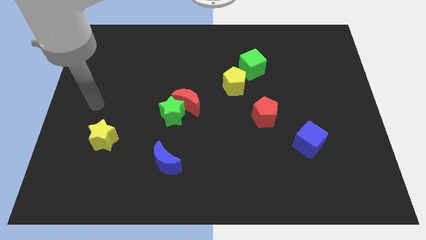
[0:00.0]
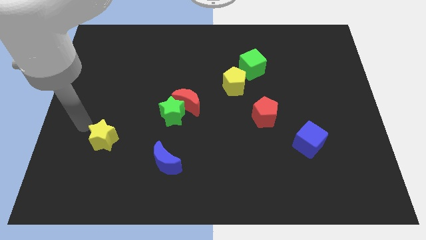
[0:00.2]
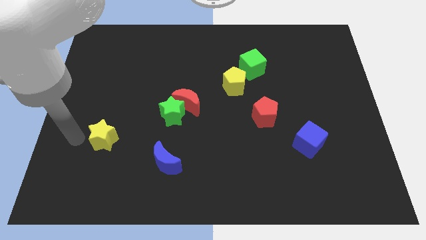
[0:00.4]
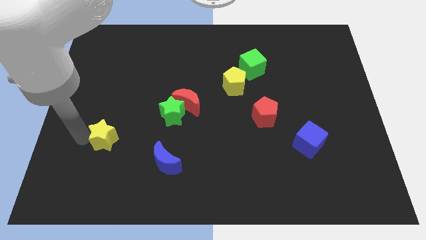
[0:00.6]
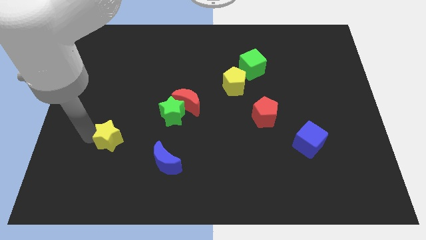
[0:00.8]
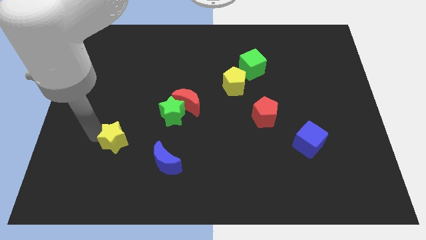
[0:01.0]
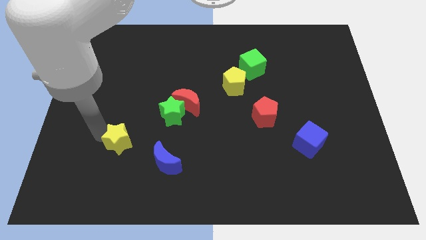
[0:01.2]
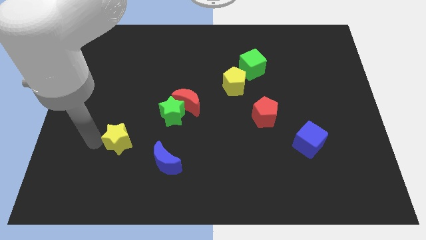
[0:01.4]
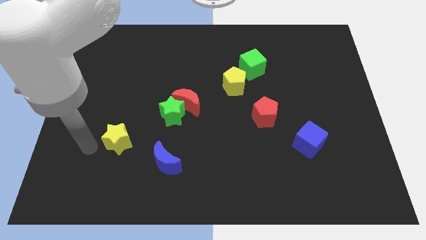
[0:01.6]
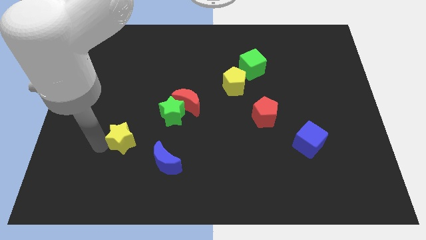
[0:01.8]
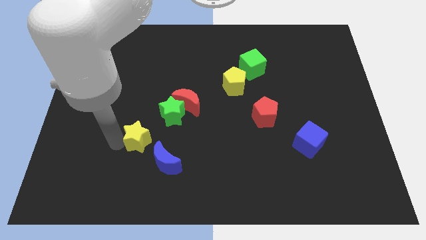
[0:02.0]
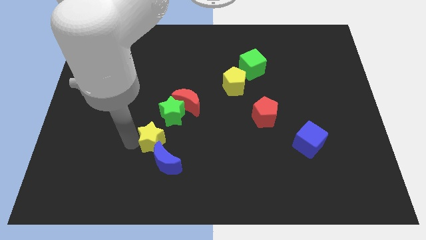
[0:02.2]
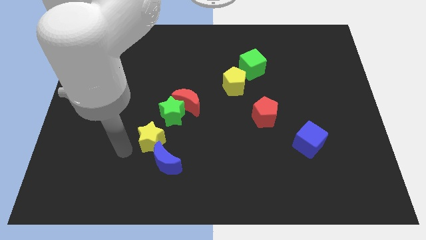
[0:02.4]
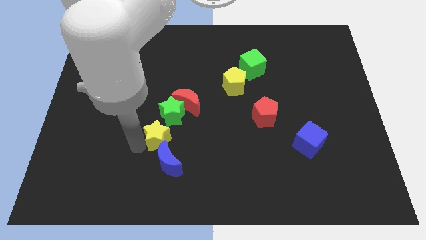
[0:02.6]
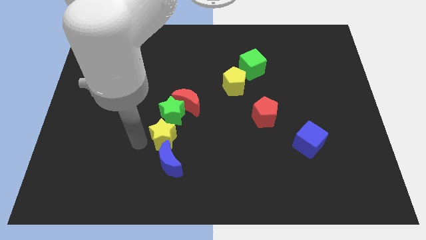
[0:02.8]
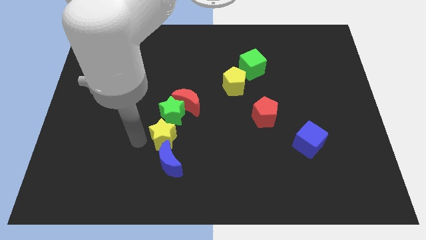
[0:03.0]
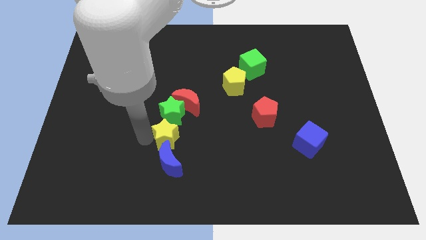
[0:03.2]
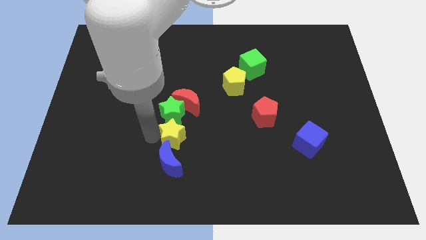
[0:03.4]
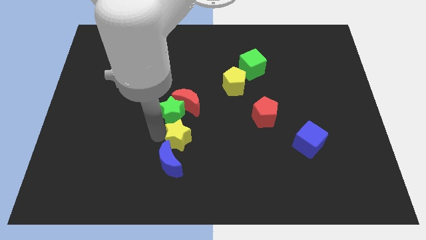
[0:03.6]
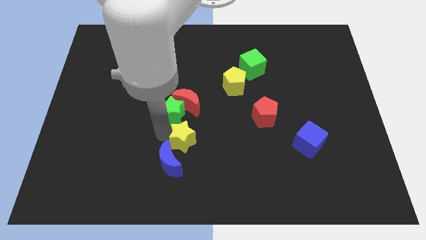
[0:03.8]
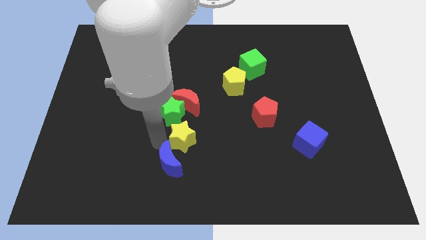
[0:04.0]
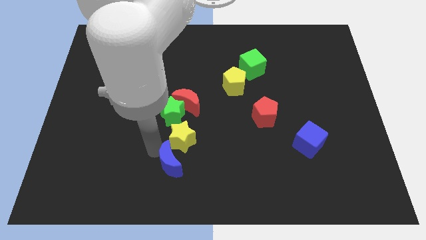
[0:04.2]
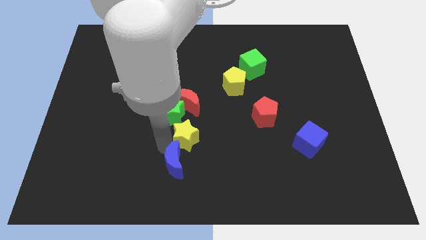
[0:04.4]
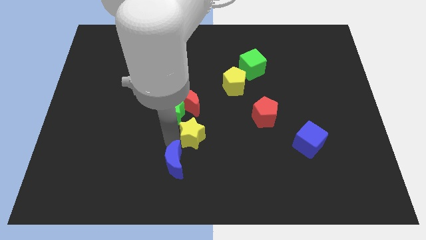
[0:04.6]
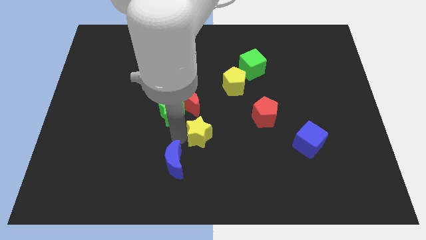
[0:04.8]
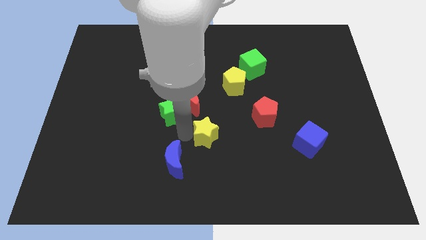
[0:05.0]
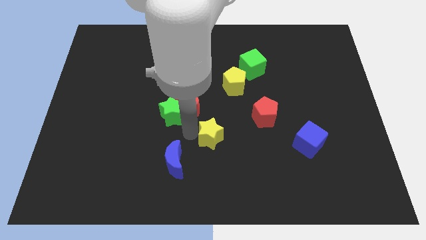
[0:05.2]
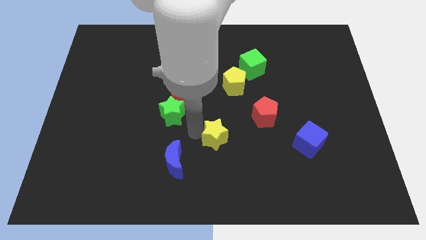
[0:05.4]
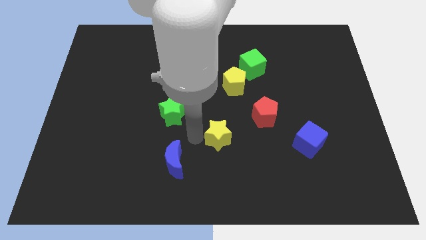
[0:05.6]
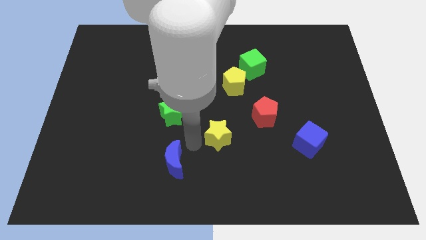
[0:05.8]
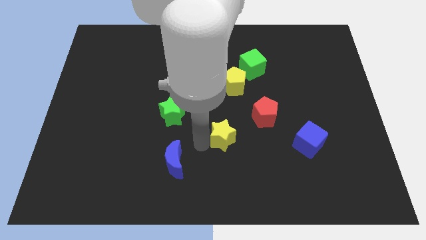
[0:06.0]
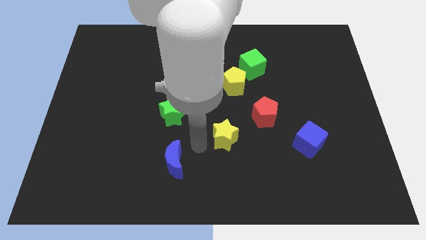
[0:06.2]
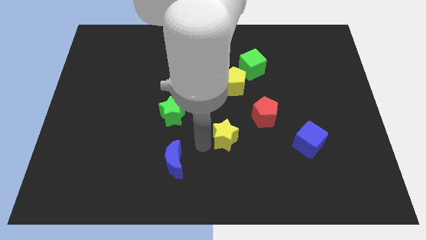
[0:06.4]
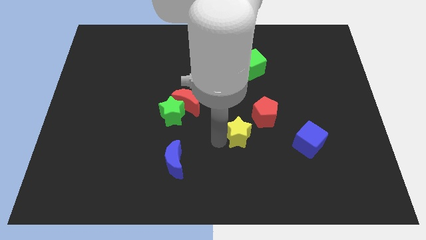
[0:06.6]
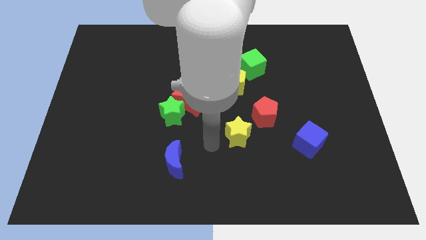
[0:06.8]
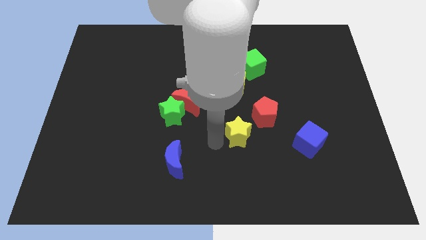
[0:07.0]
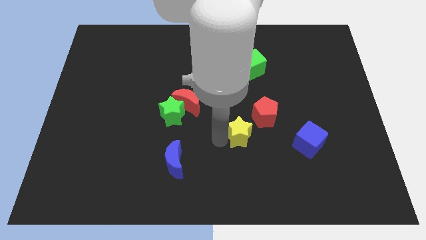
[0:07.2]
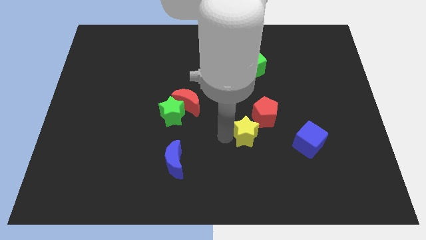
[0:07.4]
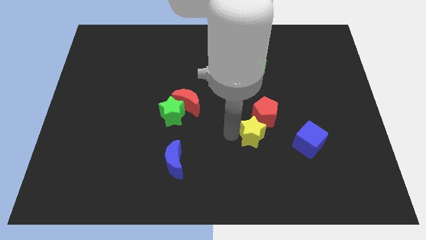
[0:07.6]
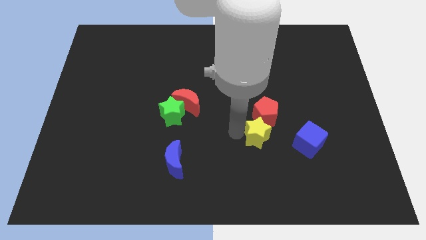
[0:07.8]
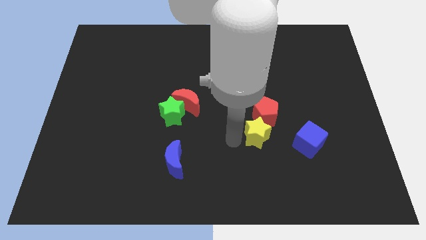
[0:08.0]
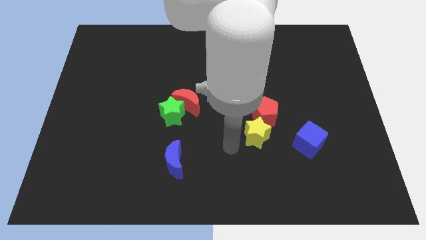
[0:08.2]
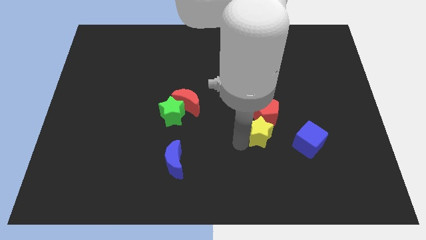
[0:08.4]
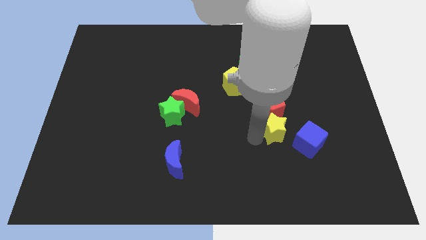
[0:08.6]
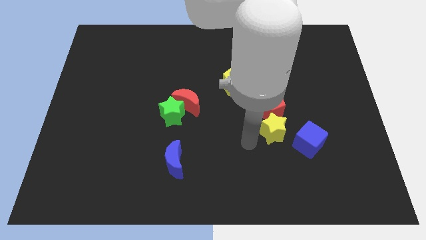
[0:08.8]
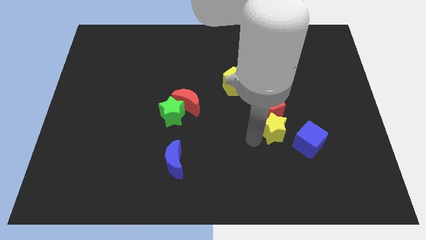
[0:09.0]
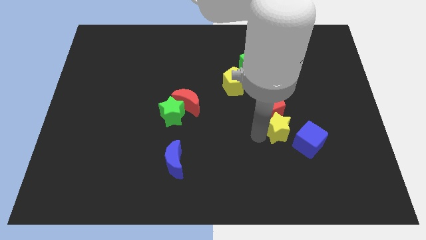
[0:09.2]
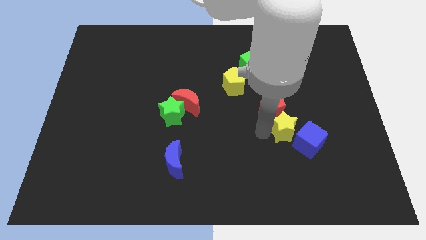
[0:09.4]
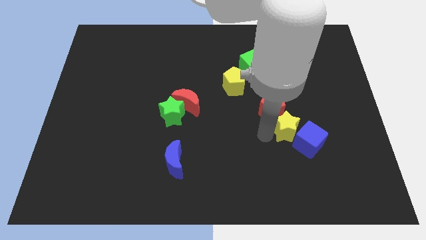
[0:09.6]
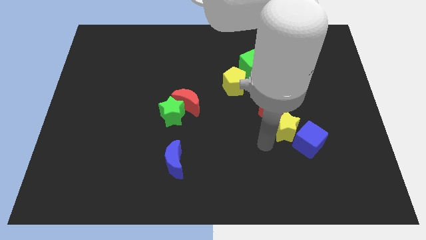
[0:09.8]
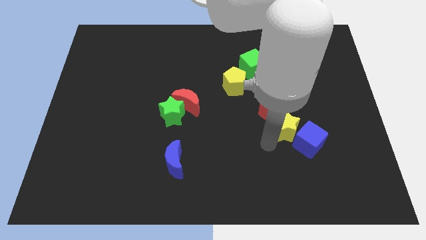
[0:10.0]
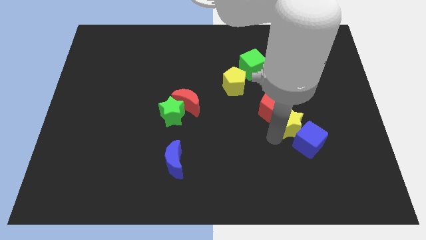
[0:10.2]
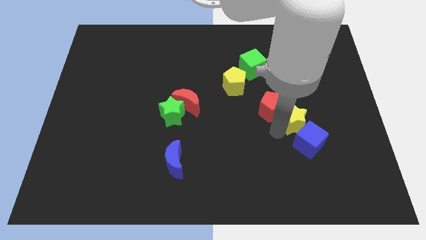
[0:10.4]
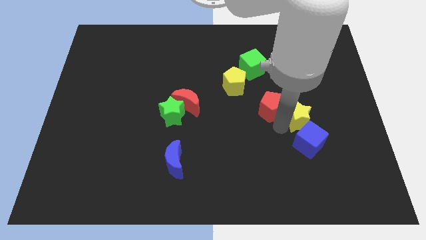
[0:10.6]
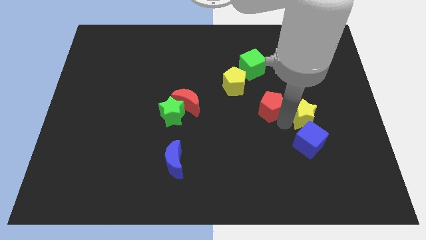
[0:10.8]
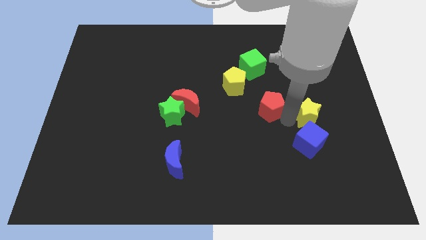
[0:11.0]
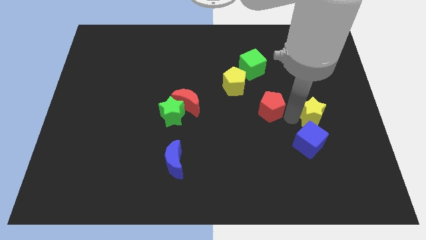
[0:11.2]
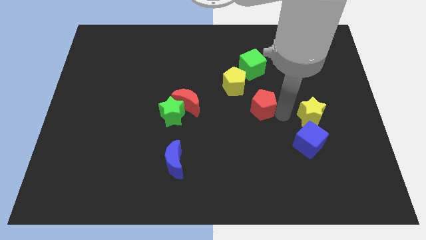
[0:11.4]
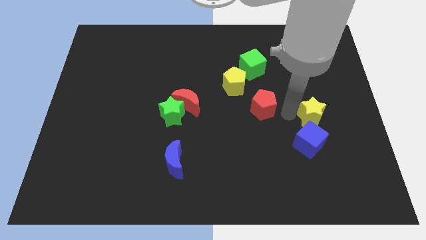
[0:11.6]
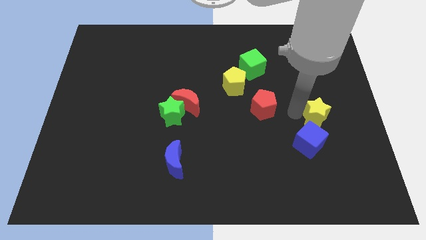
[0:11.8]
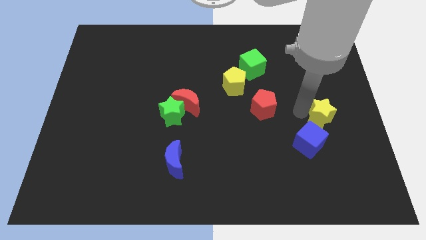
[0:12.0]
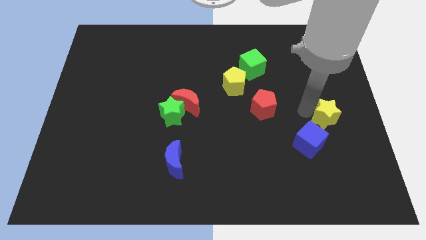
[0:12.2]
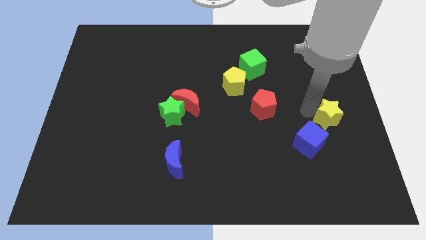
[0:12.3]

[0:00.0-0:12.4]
slide the yellow star to the right side
